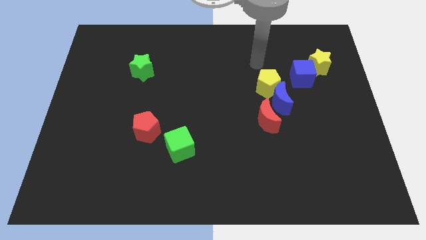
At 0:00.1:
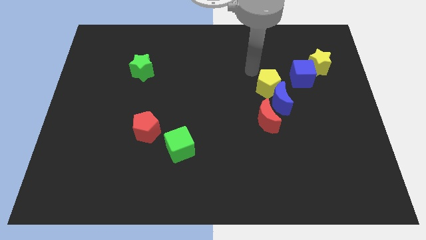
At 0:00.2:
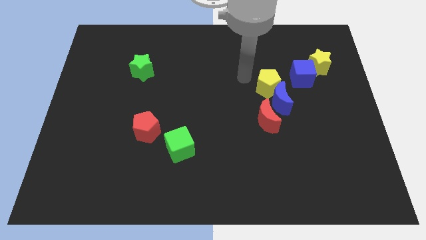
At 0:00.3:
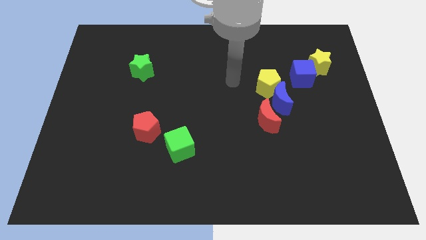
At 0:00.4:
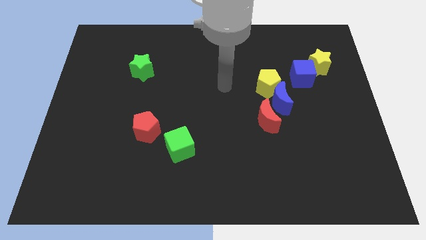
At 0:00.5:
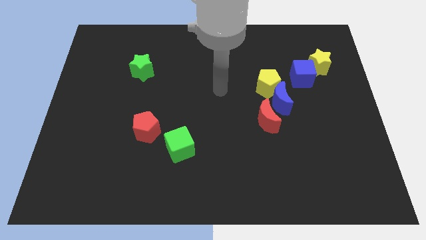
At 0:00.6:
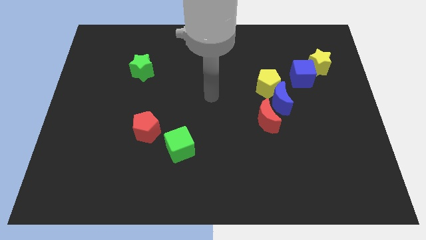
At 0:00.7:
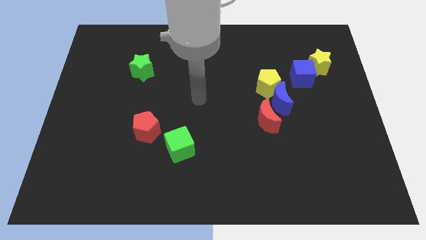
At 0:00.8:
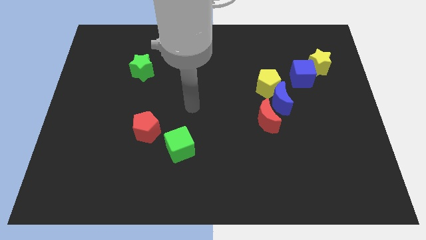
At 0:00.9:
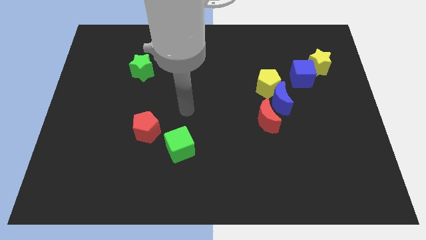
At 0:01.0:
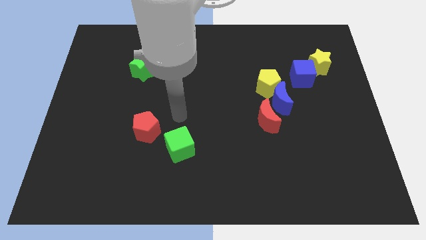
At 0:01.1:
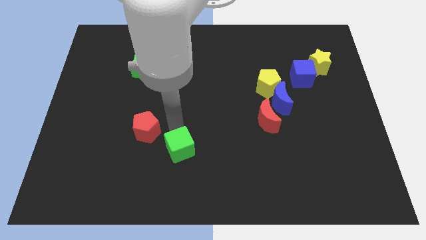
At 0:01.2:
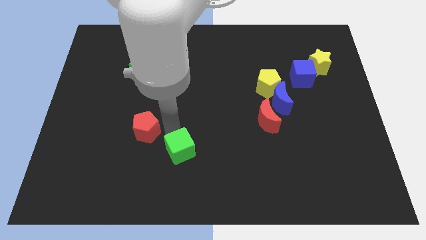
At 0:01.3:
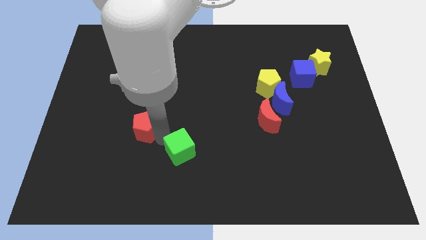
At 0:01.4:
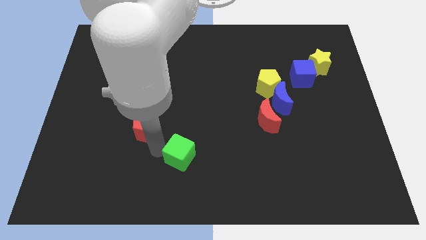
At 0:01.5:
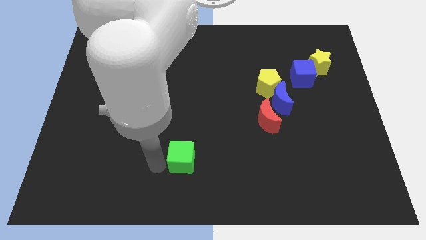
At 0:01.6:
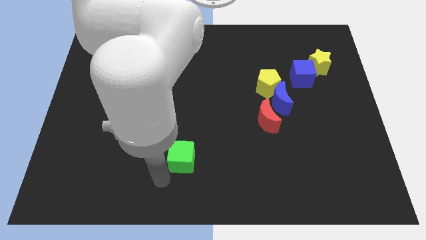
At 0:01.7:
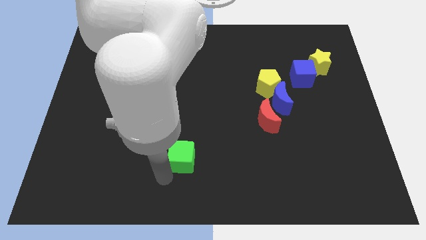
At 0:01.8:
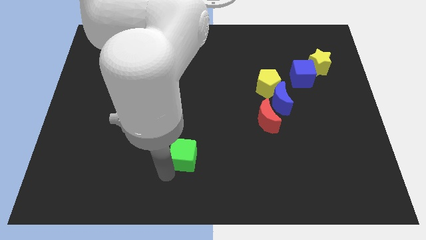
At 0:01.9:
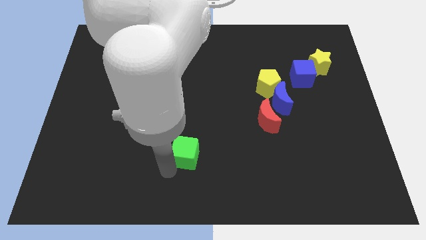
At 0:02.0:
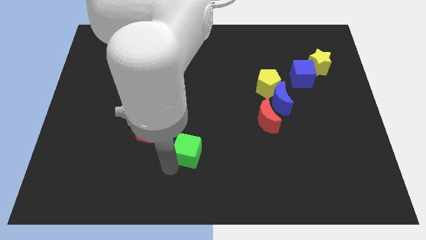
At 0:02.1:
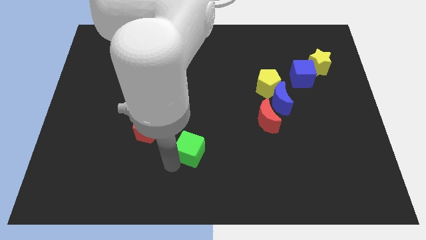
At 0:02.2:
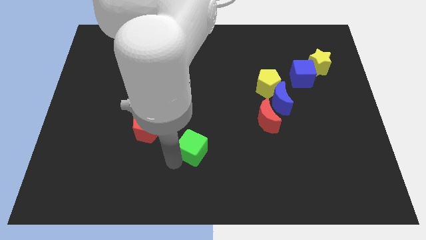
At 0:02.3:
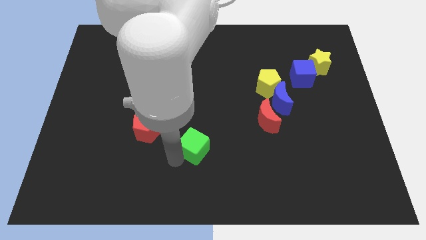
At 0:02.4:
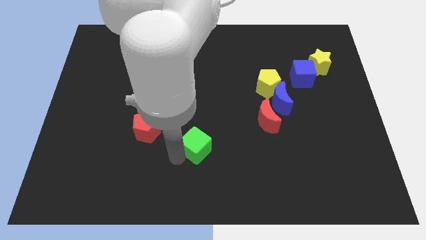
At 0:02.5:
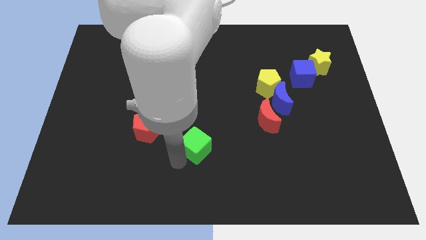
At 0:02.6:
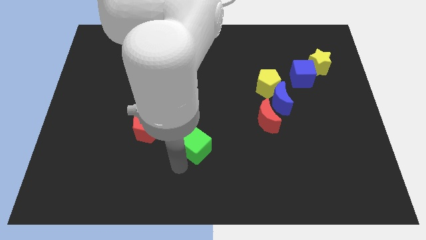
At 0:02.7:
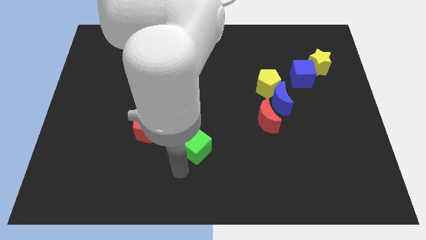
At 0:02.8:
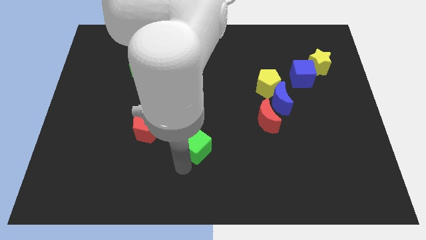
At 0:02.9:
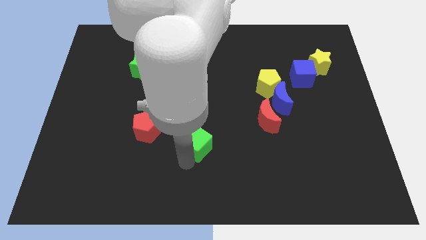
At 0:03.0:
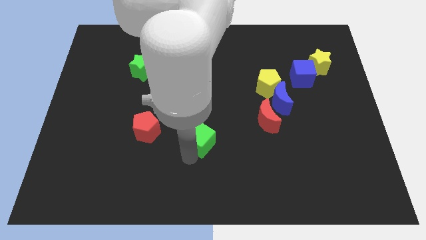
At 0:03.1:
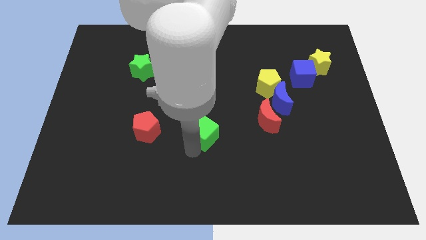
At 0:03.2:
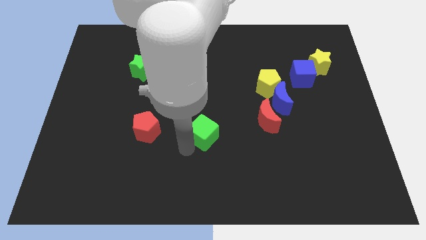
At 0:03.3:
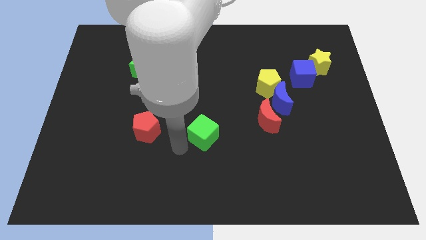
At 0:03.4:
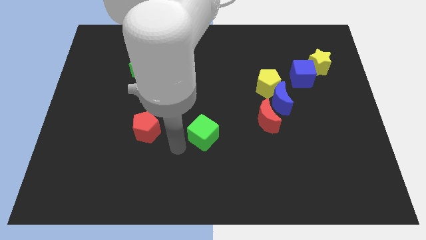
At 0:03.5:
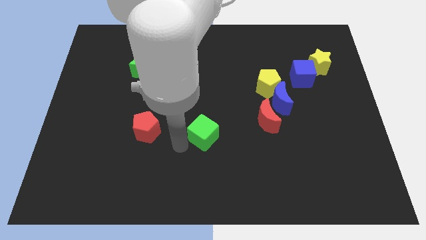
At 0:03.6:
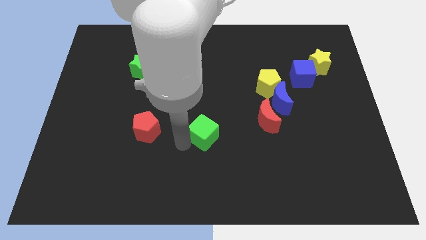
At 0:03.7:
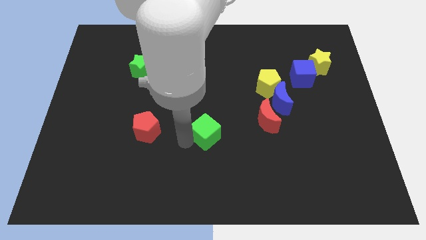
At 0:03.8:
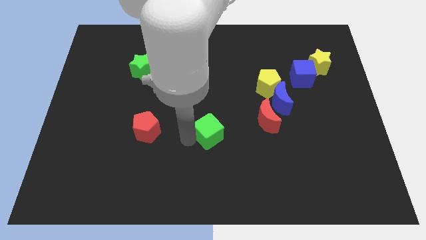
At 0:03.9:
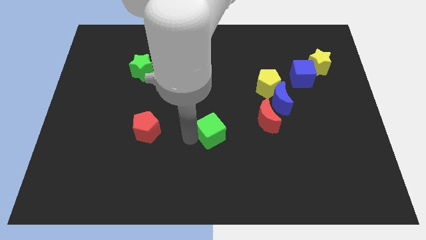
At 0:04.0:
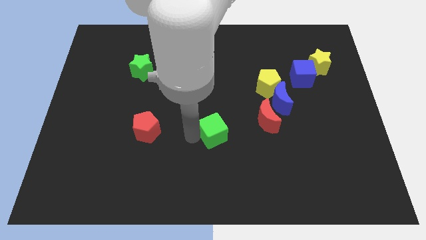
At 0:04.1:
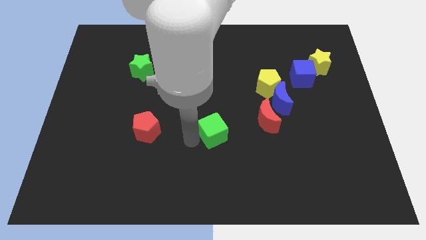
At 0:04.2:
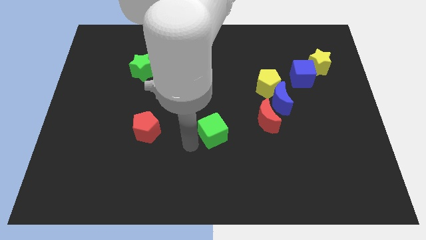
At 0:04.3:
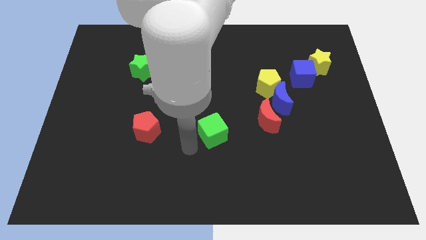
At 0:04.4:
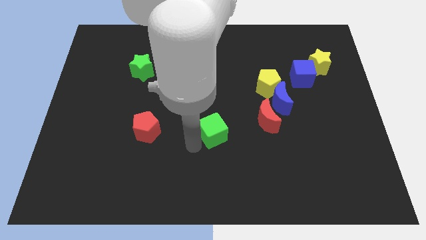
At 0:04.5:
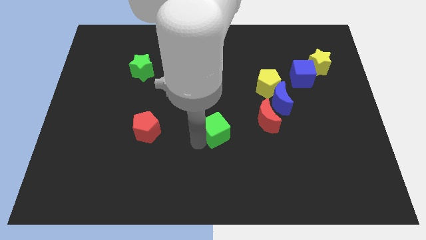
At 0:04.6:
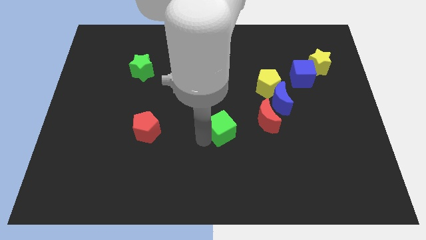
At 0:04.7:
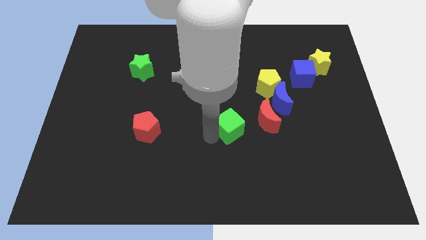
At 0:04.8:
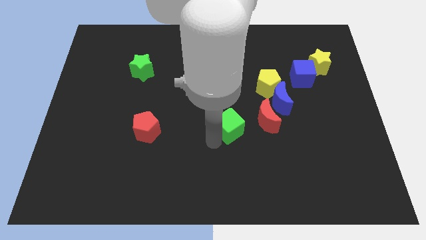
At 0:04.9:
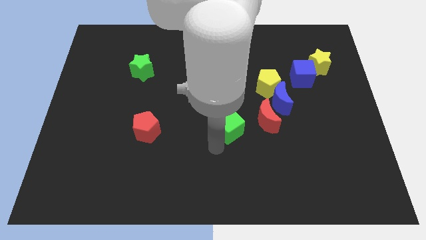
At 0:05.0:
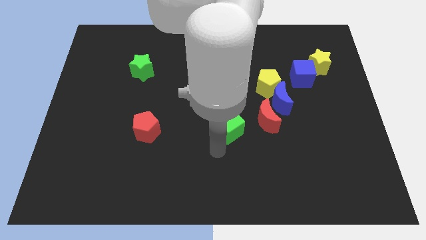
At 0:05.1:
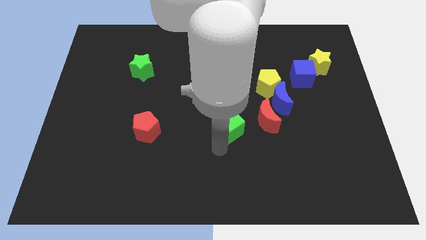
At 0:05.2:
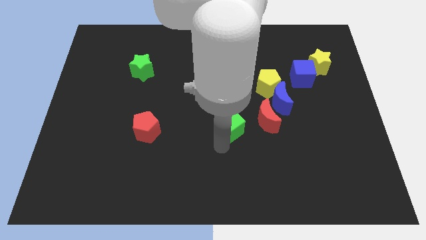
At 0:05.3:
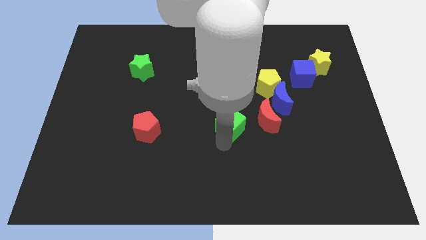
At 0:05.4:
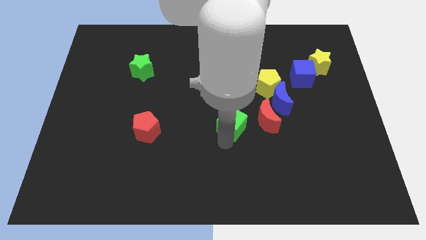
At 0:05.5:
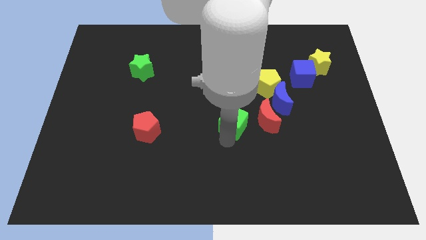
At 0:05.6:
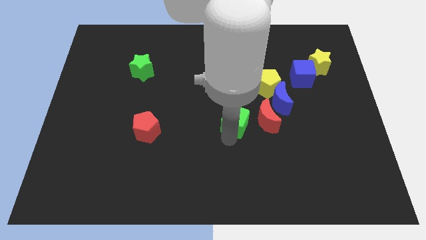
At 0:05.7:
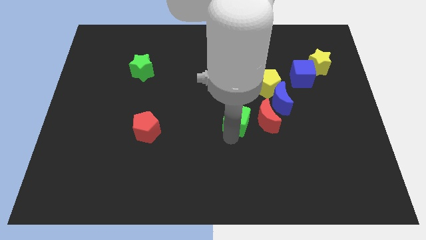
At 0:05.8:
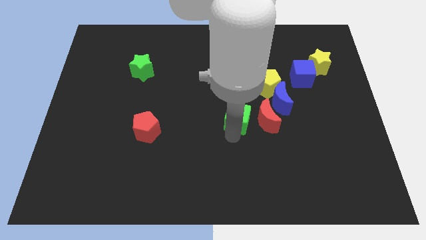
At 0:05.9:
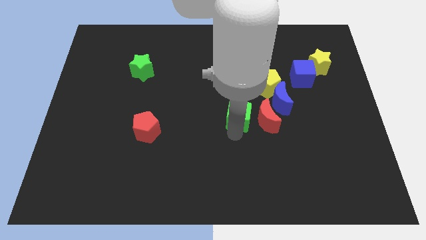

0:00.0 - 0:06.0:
move the green cube diagonally down and to the left of the yellow pentagon

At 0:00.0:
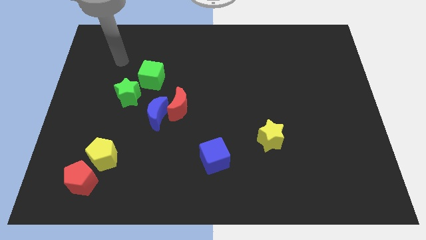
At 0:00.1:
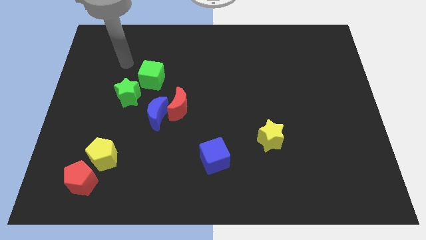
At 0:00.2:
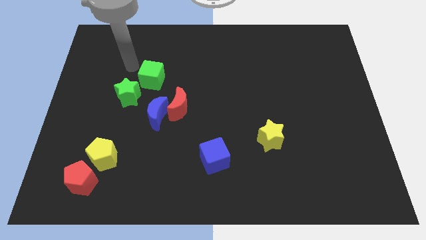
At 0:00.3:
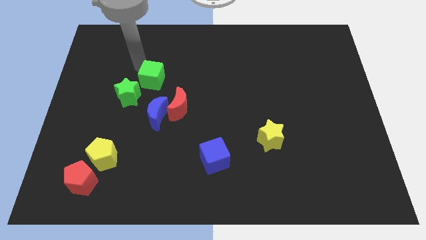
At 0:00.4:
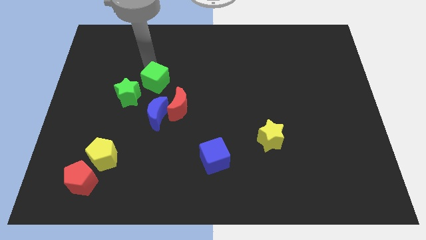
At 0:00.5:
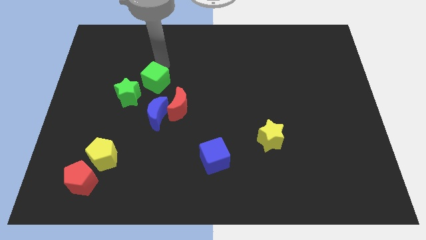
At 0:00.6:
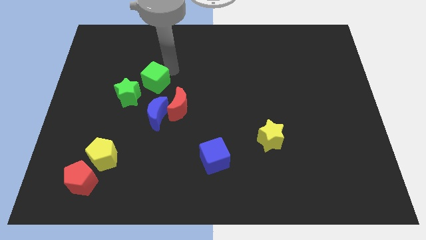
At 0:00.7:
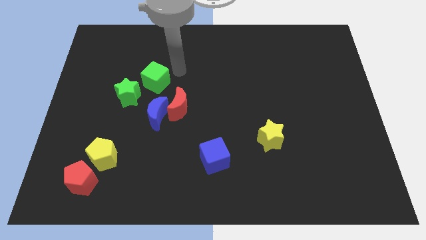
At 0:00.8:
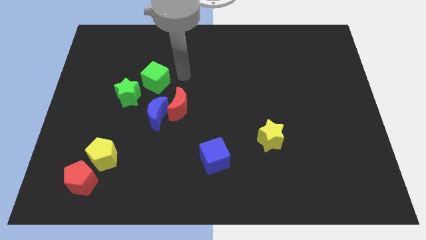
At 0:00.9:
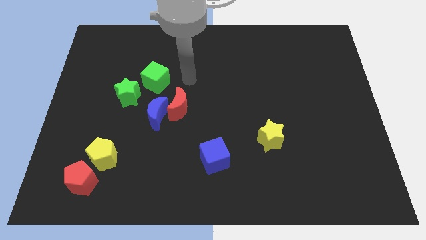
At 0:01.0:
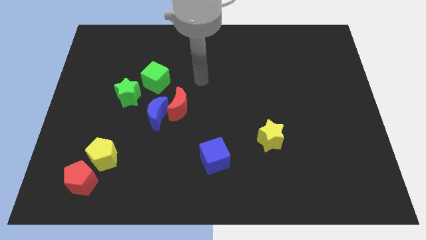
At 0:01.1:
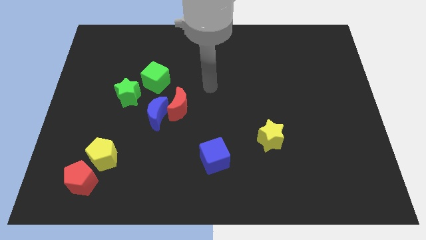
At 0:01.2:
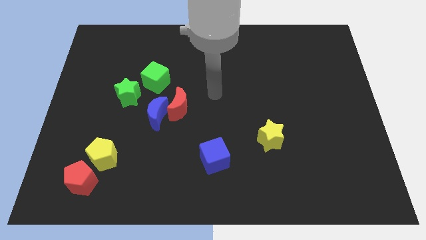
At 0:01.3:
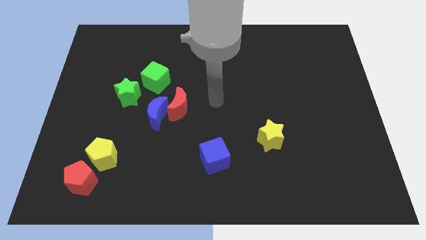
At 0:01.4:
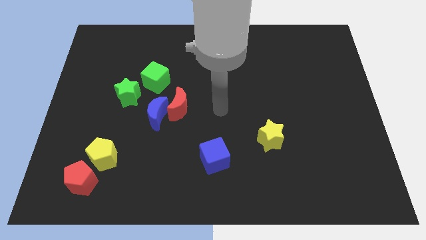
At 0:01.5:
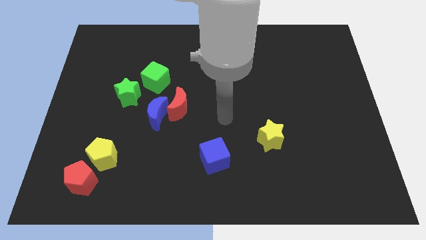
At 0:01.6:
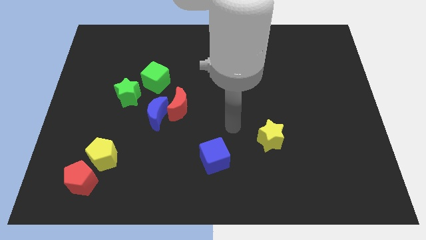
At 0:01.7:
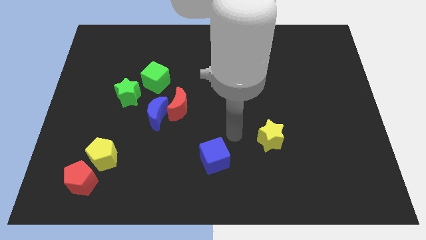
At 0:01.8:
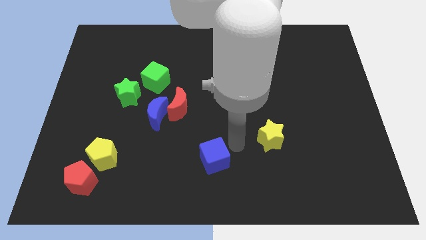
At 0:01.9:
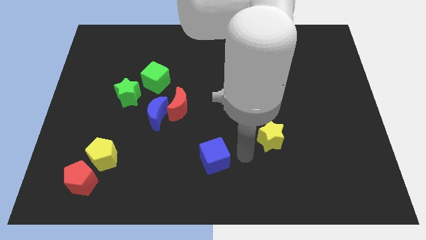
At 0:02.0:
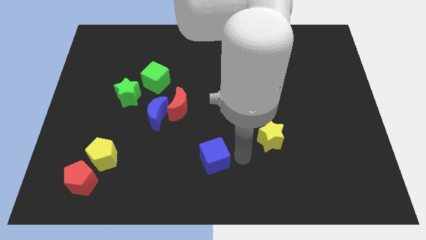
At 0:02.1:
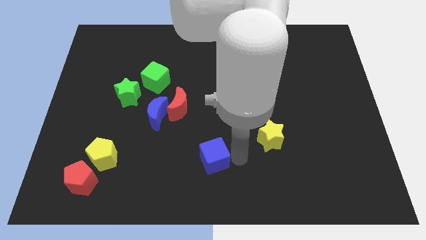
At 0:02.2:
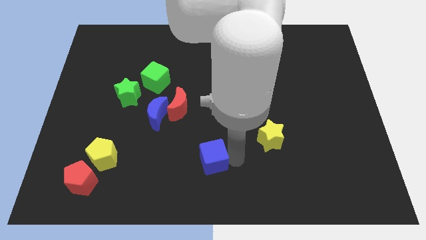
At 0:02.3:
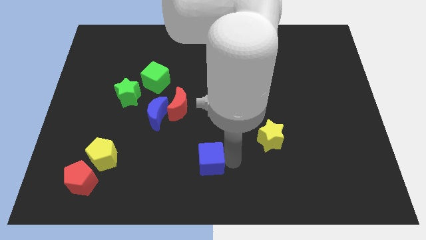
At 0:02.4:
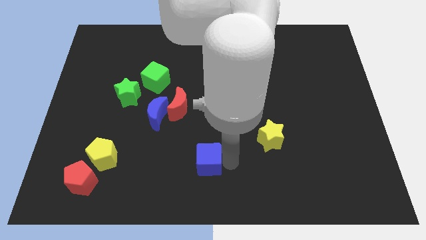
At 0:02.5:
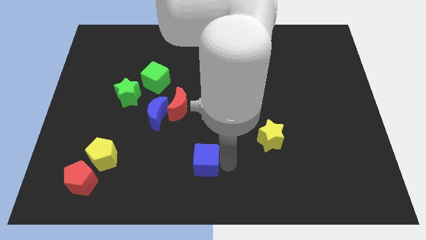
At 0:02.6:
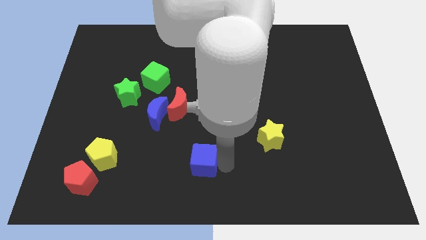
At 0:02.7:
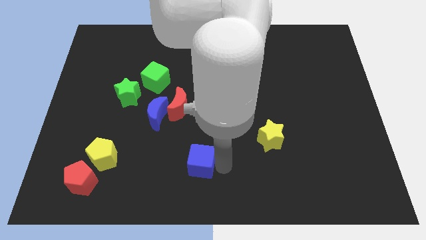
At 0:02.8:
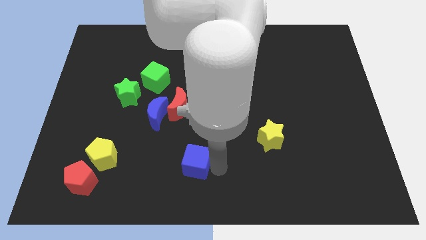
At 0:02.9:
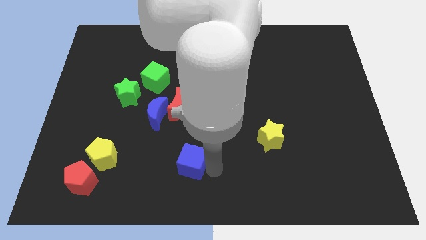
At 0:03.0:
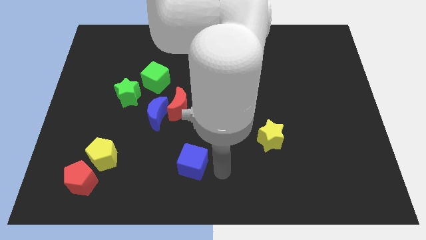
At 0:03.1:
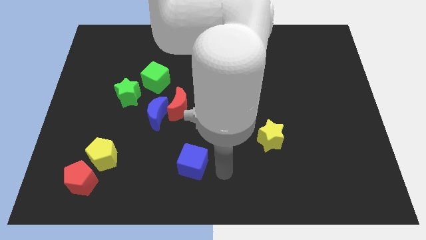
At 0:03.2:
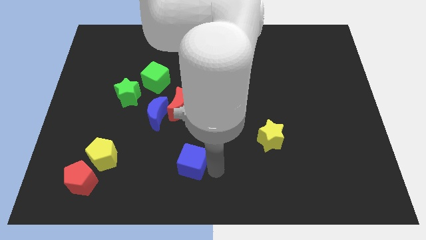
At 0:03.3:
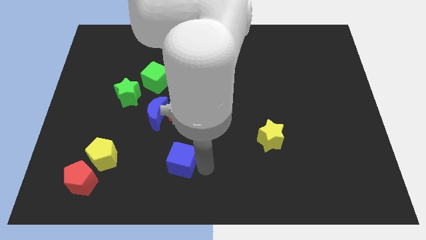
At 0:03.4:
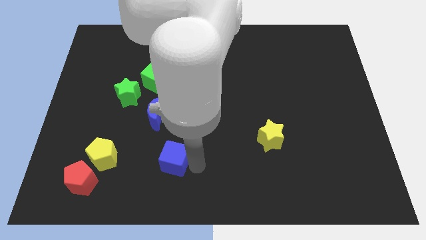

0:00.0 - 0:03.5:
slide the blue cube below the blue moon
